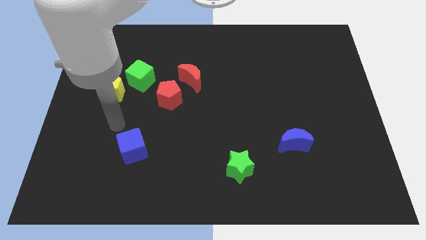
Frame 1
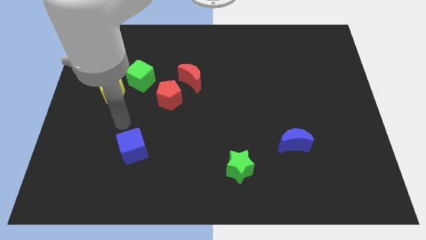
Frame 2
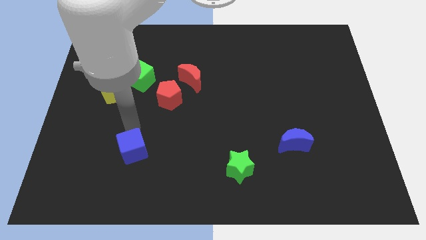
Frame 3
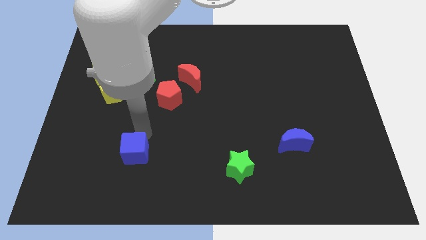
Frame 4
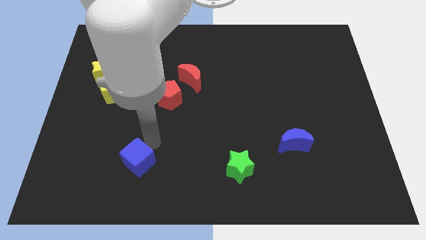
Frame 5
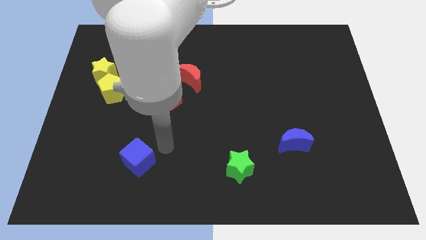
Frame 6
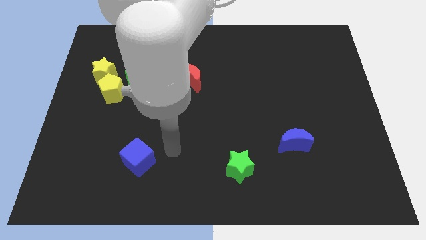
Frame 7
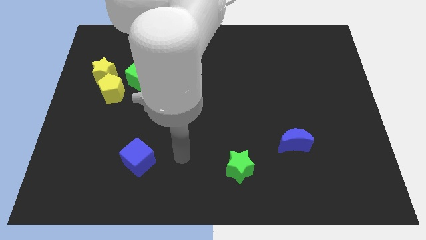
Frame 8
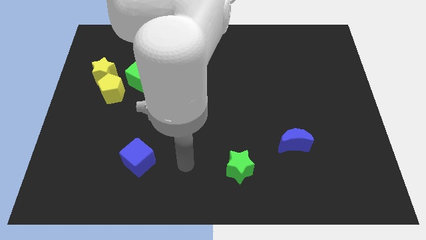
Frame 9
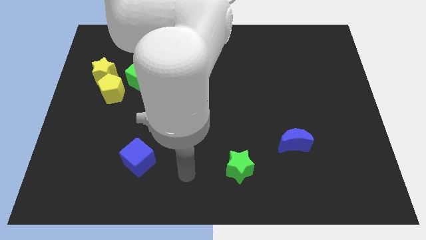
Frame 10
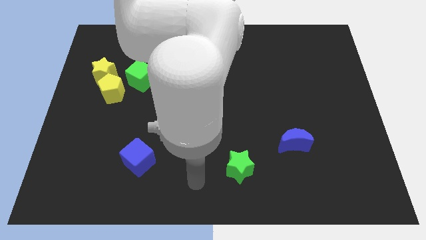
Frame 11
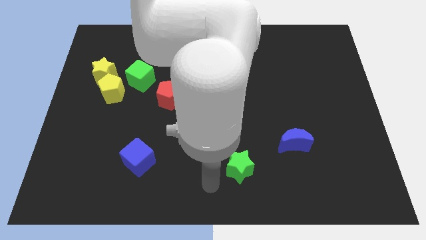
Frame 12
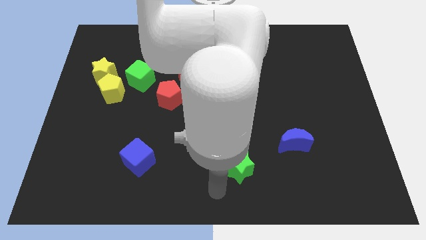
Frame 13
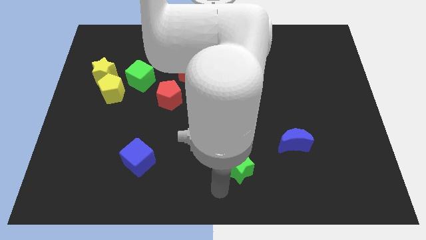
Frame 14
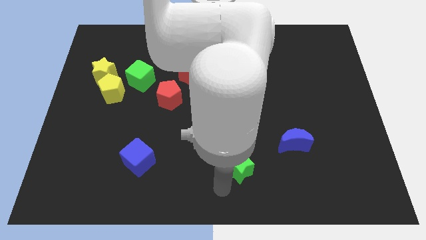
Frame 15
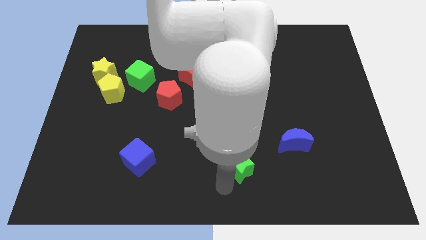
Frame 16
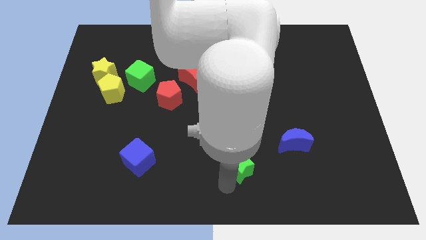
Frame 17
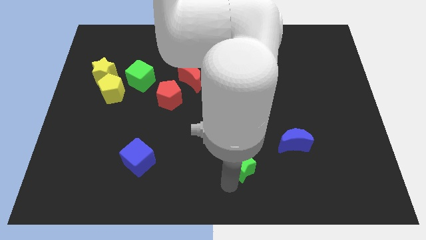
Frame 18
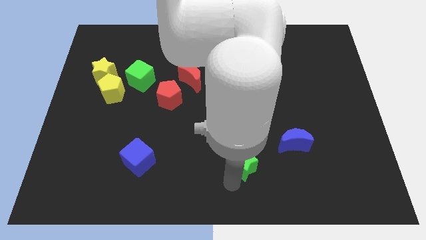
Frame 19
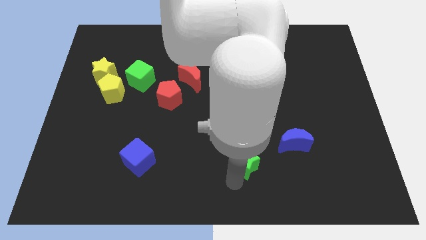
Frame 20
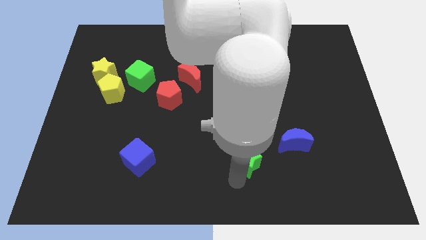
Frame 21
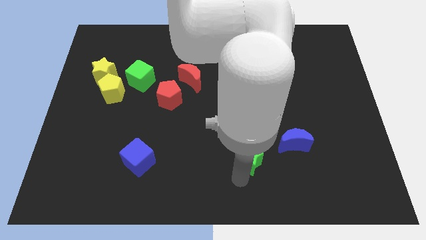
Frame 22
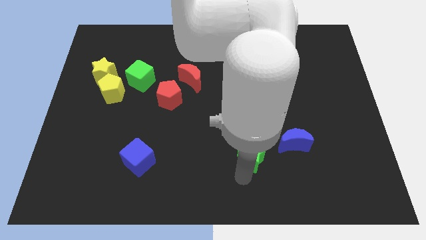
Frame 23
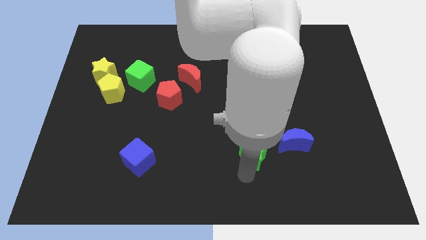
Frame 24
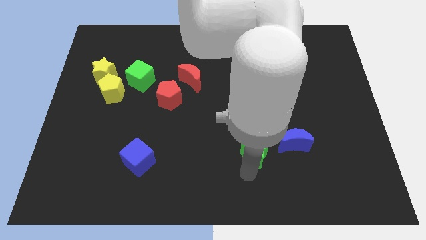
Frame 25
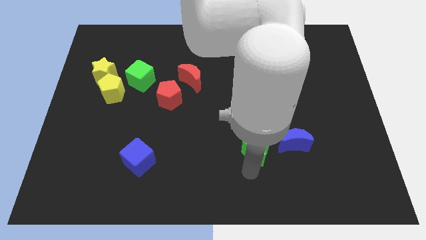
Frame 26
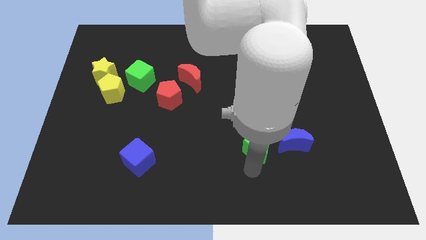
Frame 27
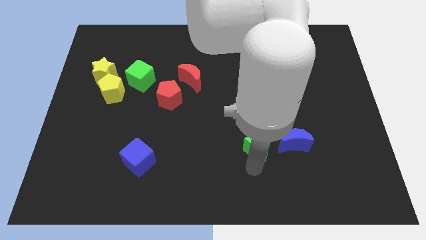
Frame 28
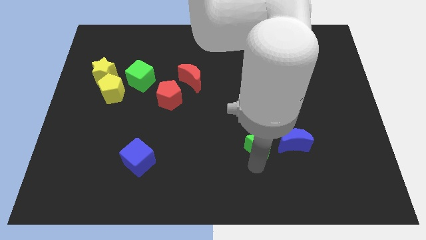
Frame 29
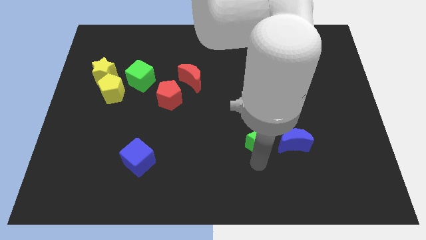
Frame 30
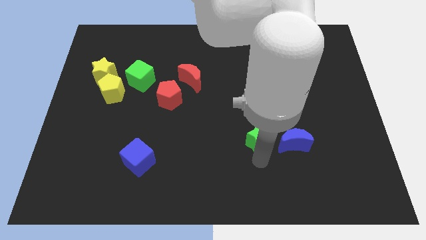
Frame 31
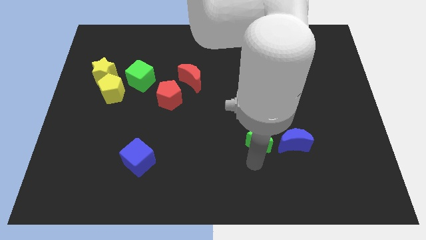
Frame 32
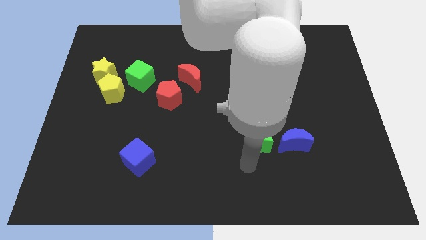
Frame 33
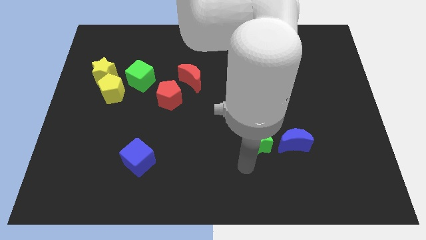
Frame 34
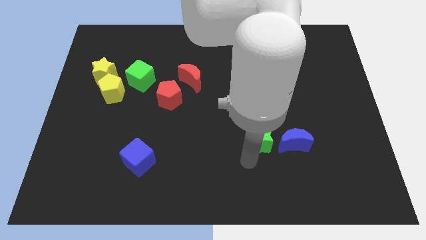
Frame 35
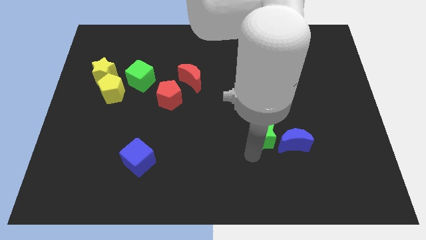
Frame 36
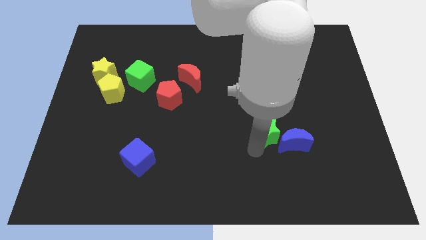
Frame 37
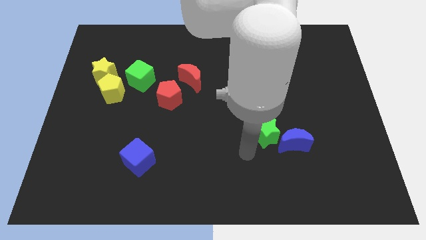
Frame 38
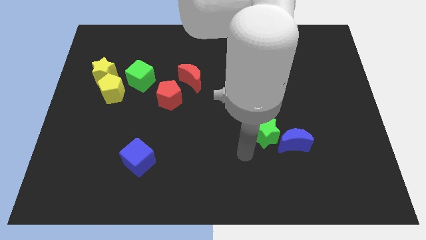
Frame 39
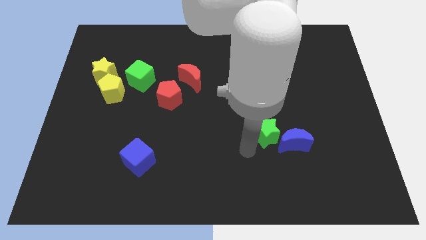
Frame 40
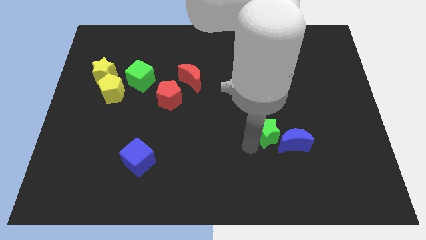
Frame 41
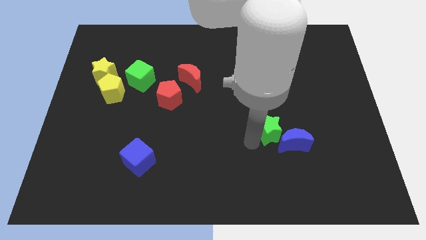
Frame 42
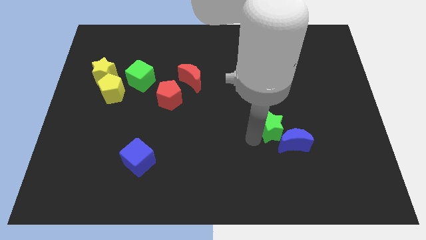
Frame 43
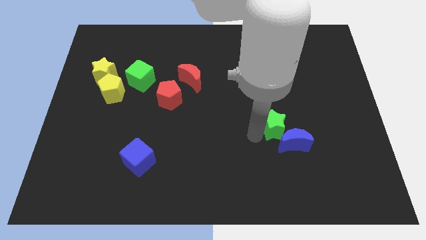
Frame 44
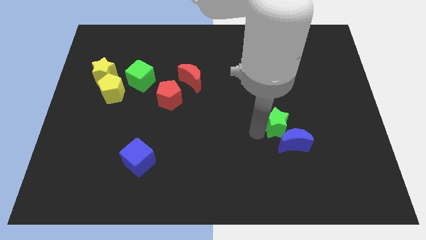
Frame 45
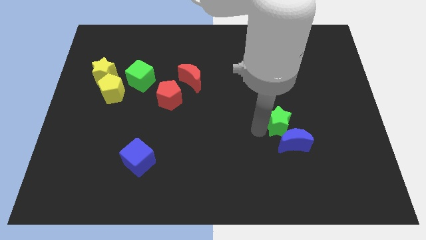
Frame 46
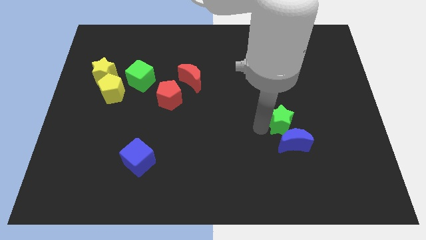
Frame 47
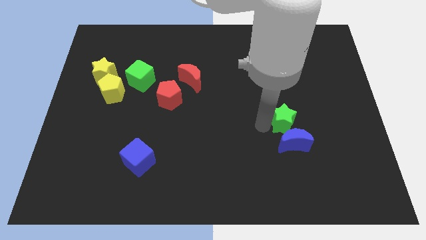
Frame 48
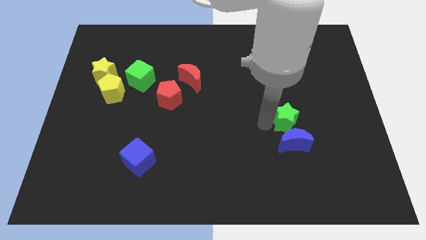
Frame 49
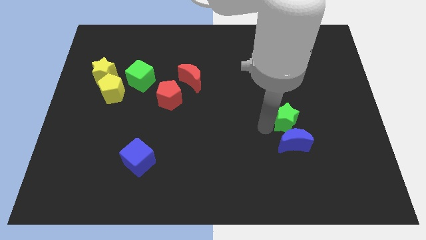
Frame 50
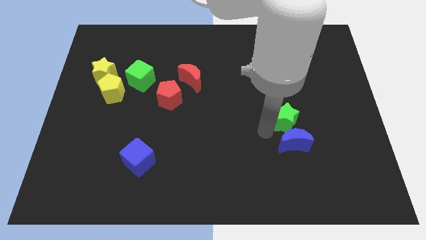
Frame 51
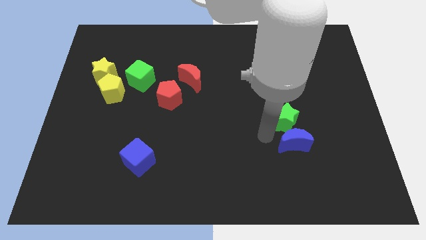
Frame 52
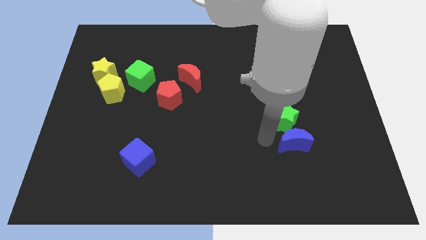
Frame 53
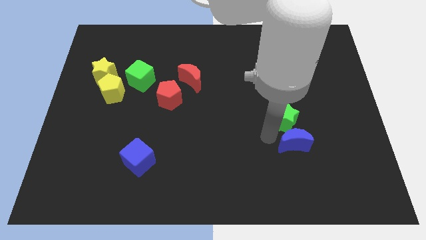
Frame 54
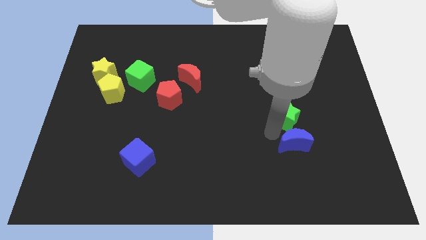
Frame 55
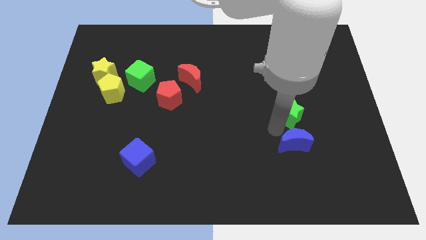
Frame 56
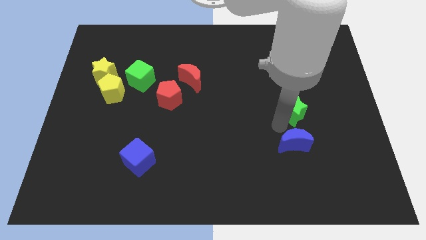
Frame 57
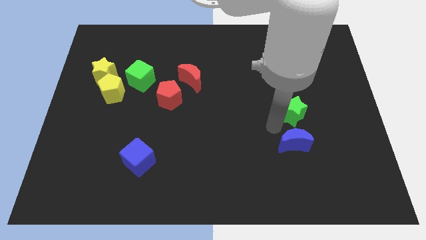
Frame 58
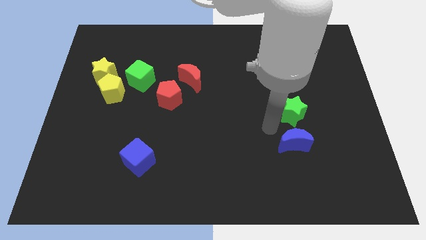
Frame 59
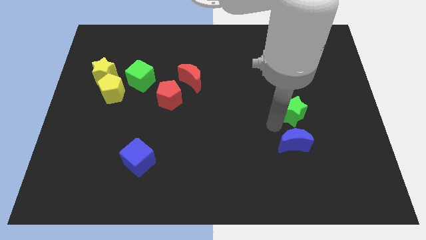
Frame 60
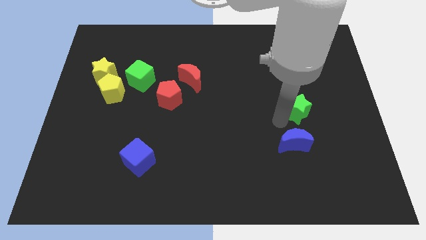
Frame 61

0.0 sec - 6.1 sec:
push the green star upwards and right

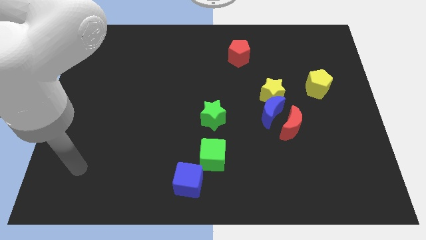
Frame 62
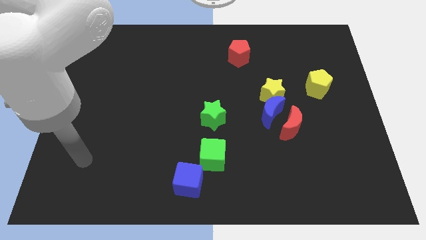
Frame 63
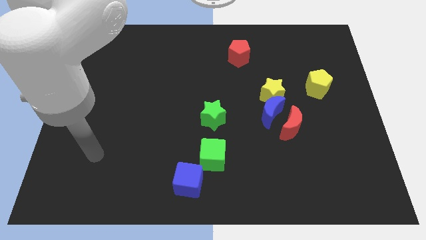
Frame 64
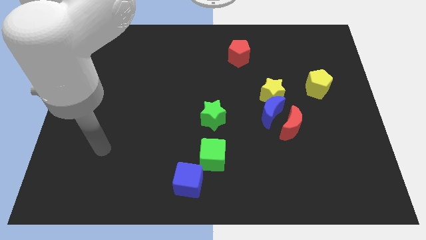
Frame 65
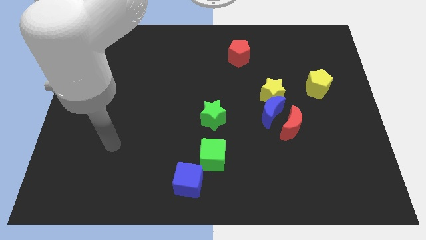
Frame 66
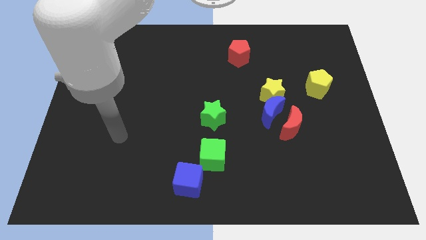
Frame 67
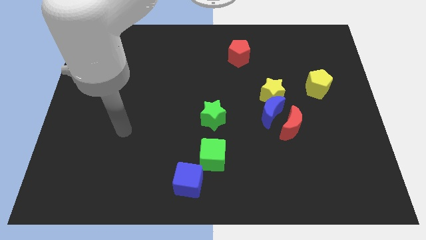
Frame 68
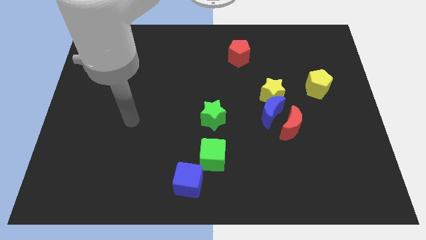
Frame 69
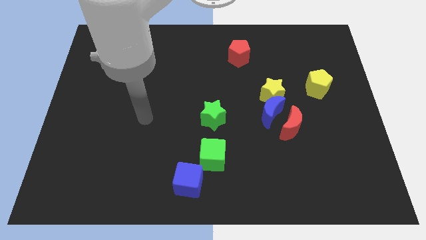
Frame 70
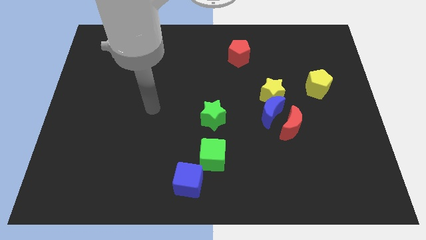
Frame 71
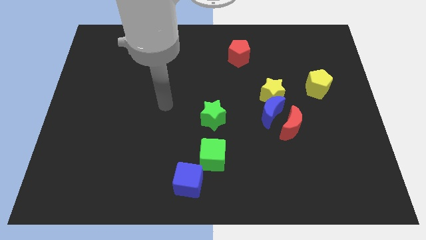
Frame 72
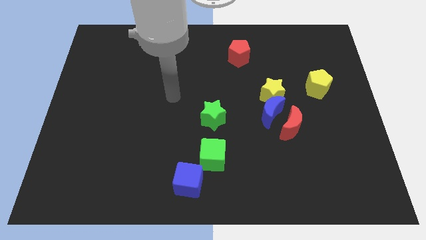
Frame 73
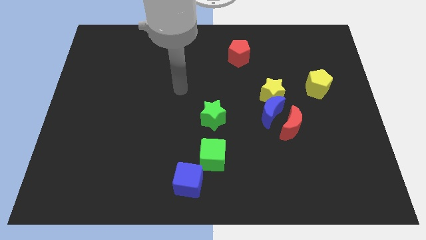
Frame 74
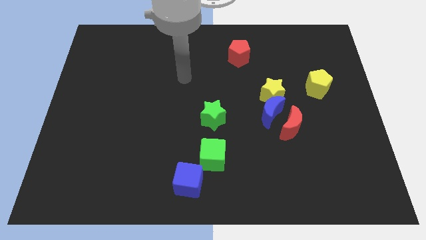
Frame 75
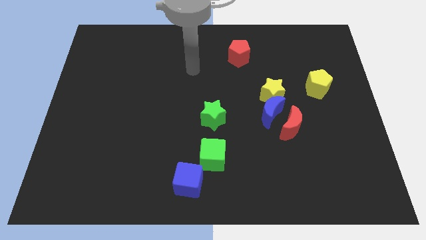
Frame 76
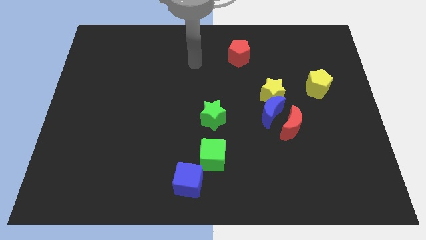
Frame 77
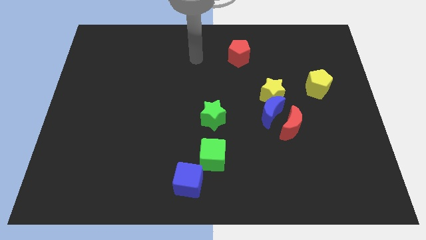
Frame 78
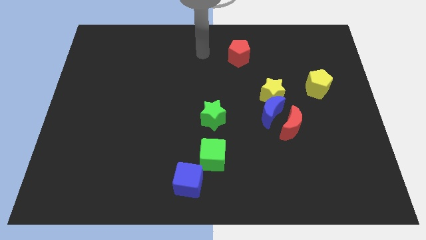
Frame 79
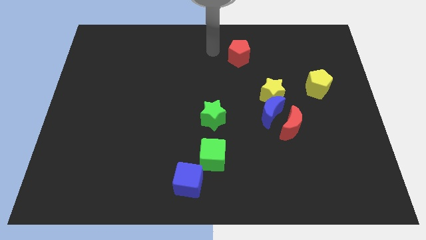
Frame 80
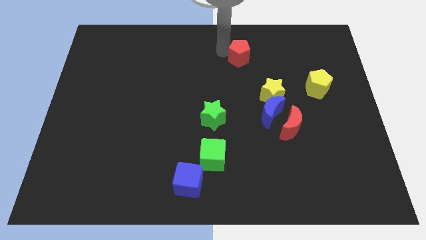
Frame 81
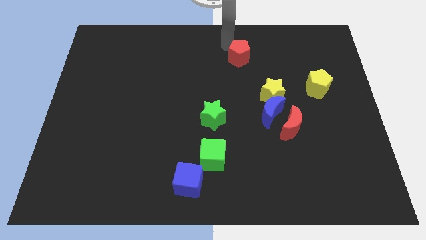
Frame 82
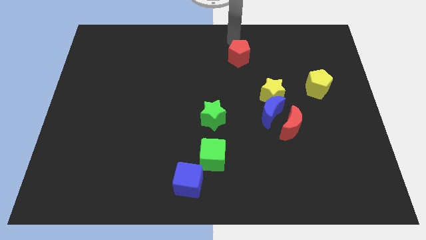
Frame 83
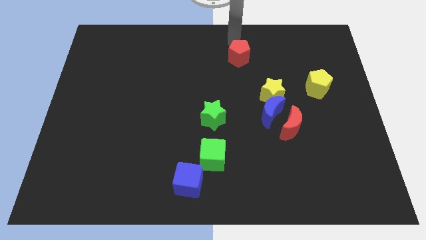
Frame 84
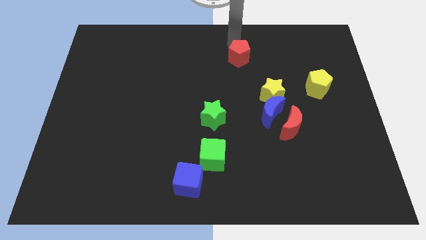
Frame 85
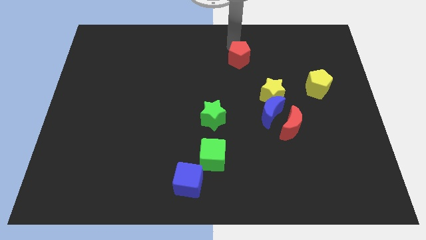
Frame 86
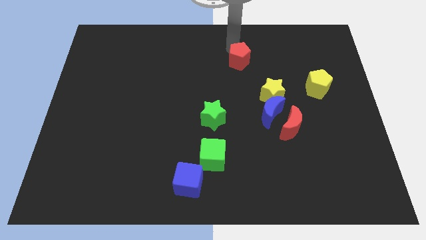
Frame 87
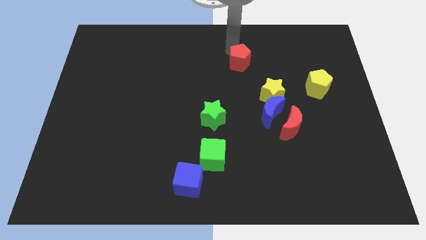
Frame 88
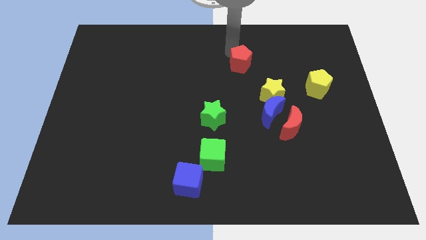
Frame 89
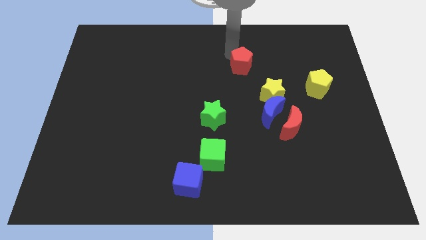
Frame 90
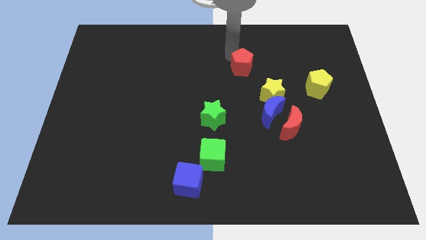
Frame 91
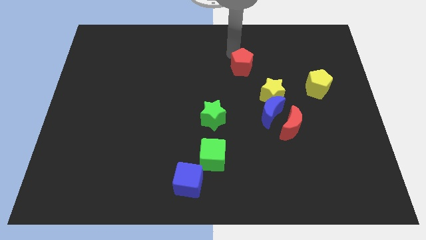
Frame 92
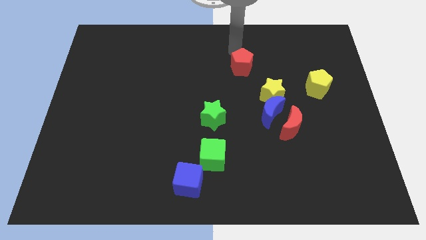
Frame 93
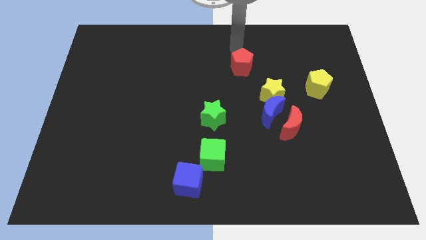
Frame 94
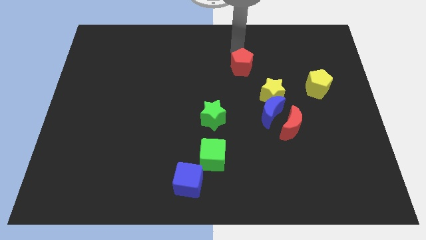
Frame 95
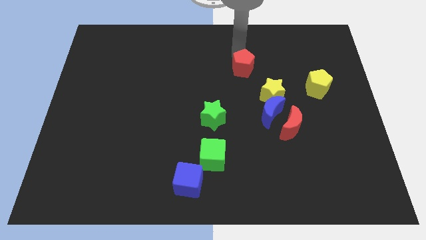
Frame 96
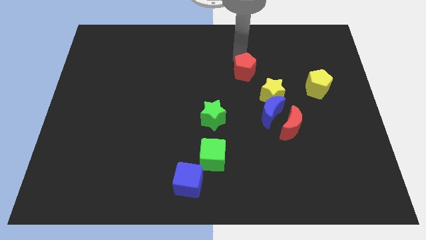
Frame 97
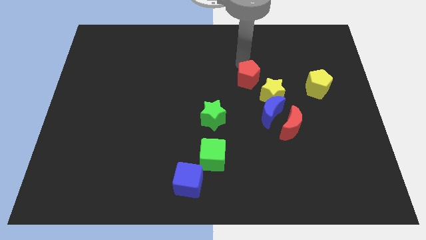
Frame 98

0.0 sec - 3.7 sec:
slightly move the red pentagon downwards
